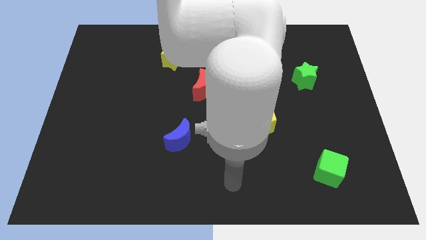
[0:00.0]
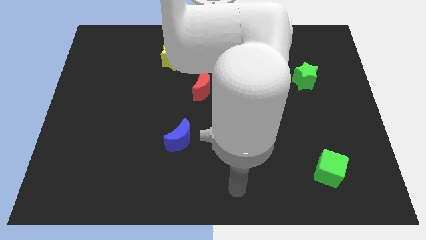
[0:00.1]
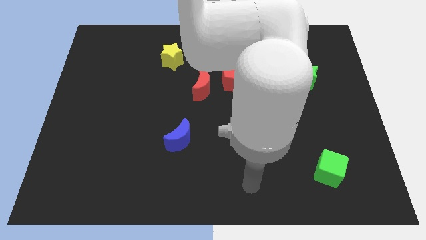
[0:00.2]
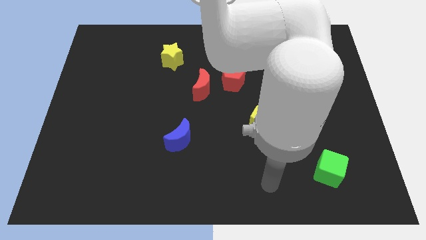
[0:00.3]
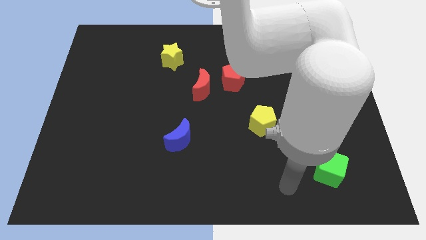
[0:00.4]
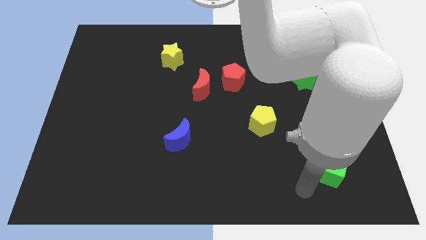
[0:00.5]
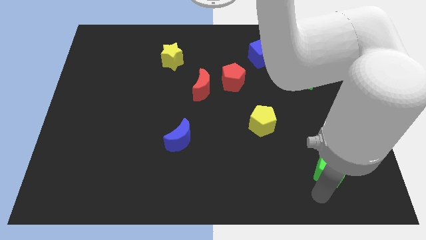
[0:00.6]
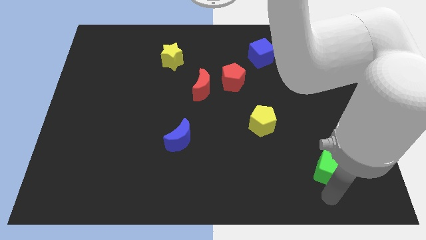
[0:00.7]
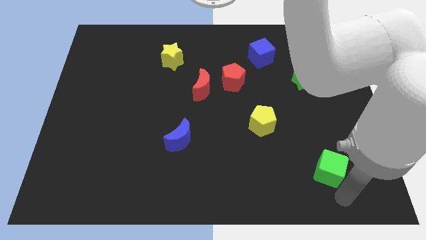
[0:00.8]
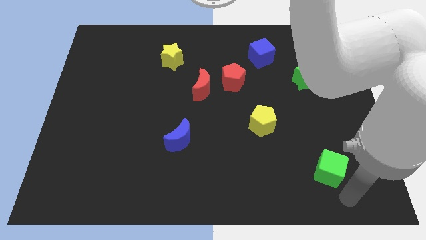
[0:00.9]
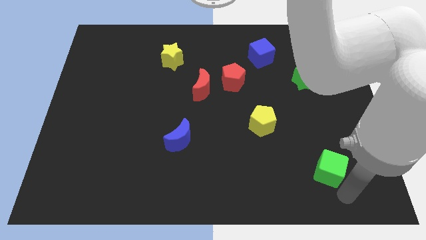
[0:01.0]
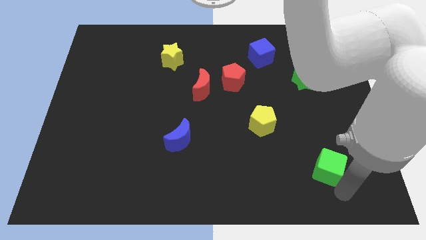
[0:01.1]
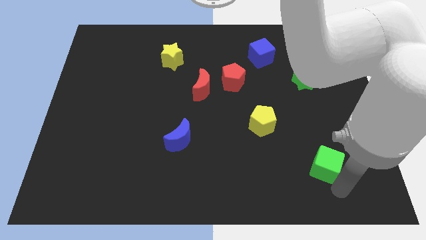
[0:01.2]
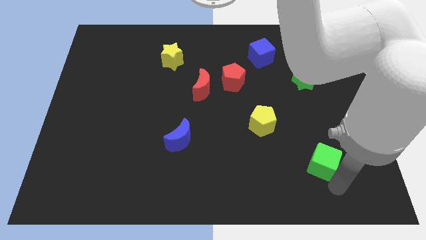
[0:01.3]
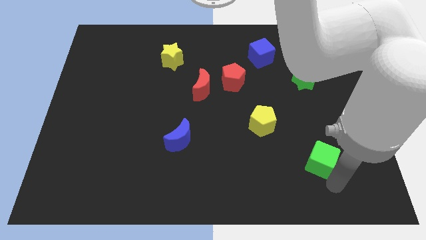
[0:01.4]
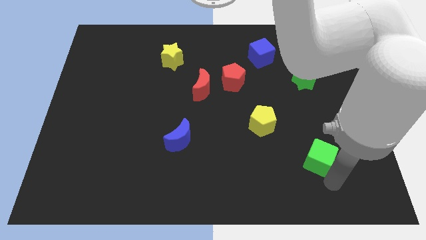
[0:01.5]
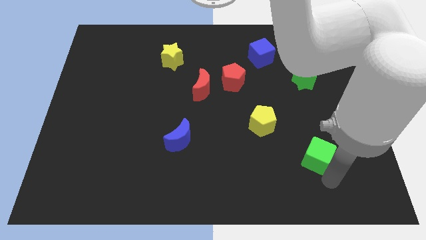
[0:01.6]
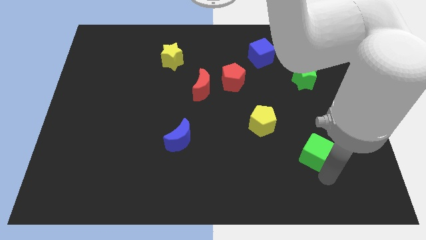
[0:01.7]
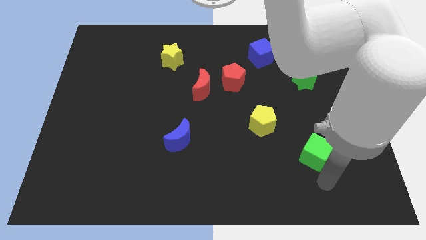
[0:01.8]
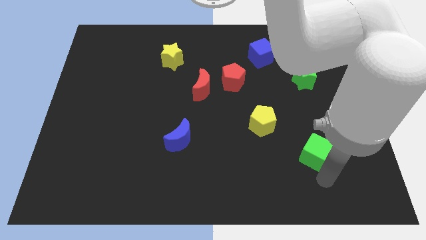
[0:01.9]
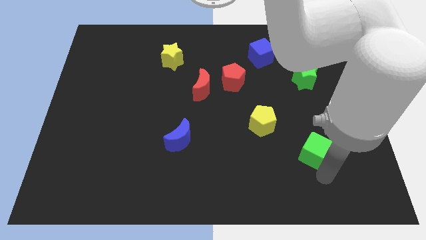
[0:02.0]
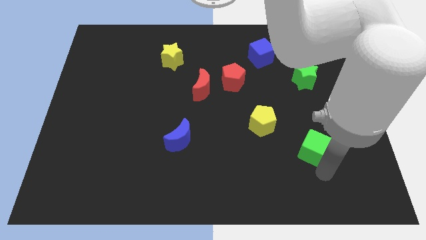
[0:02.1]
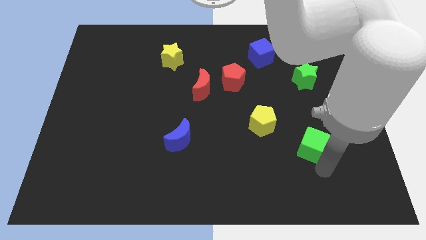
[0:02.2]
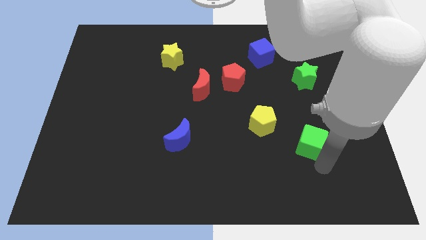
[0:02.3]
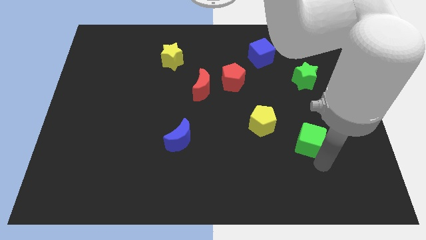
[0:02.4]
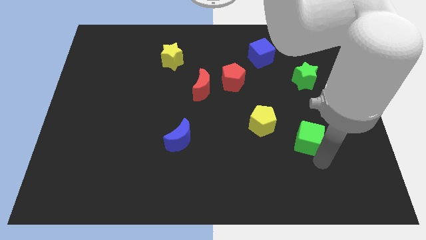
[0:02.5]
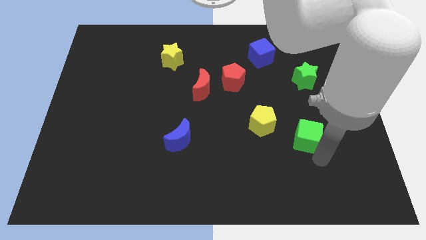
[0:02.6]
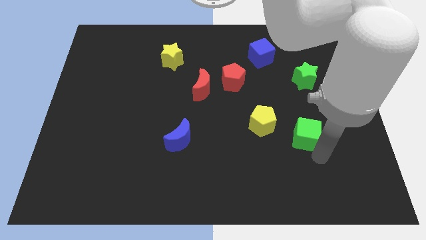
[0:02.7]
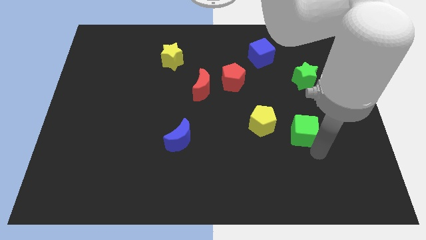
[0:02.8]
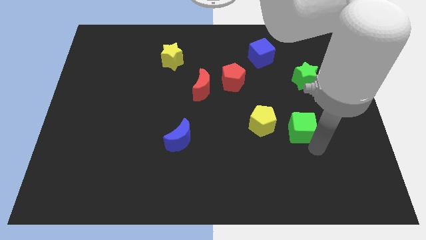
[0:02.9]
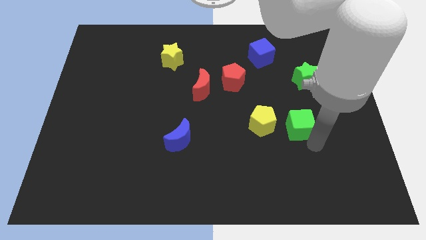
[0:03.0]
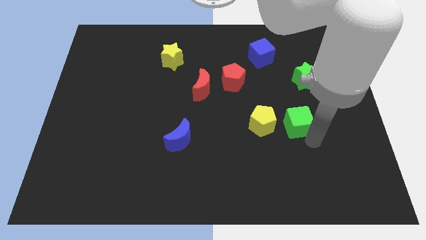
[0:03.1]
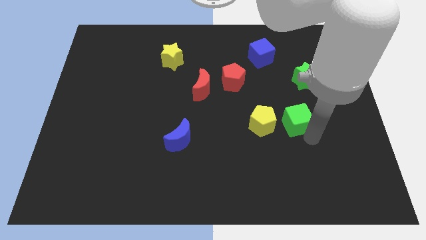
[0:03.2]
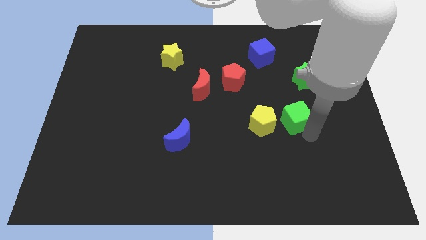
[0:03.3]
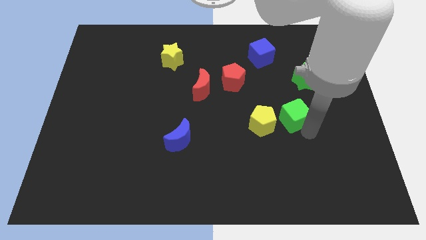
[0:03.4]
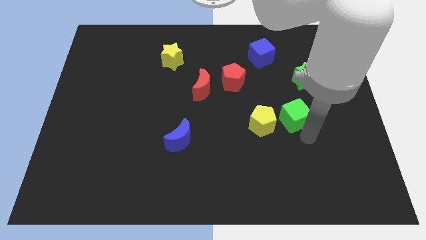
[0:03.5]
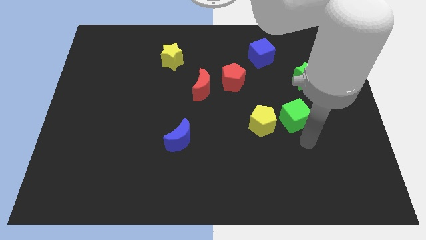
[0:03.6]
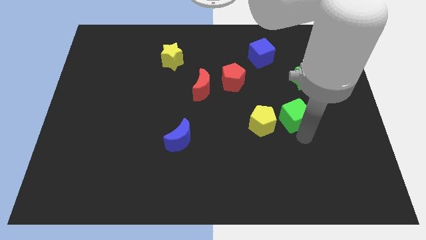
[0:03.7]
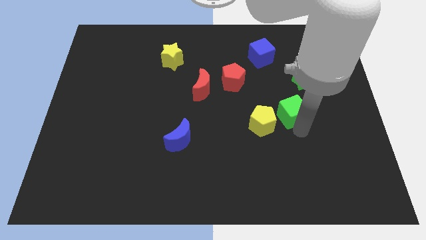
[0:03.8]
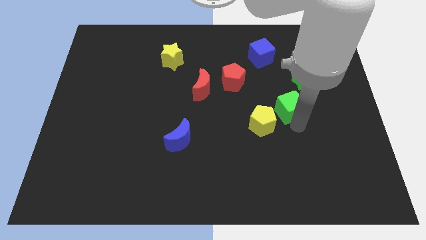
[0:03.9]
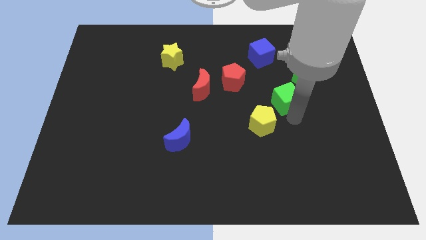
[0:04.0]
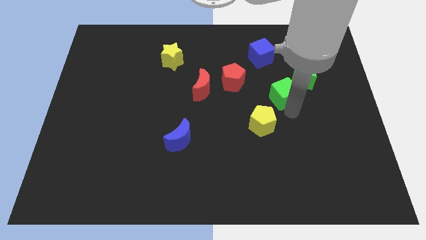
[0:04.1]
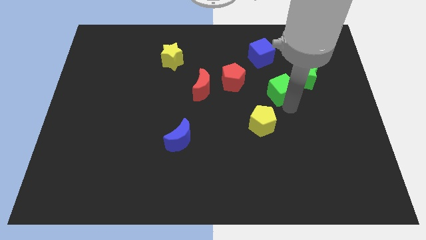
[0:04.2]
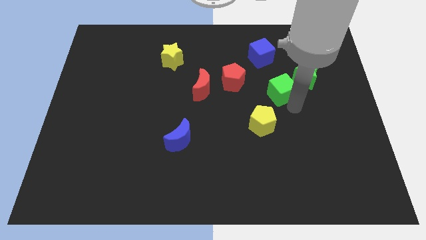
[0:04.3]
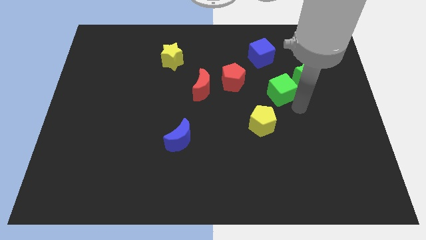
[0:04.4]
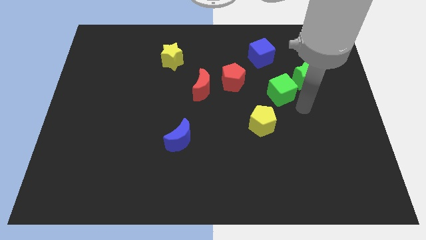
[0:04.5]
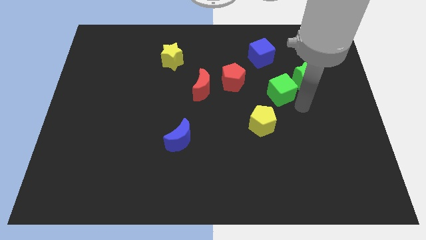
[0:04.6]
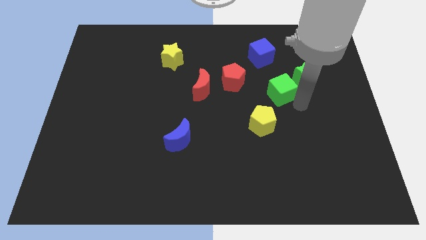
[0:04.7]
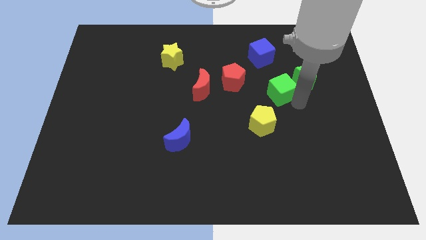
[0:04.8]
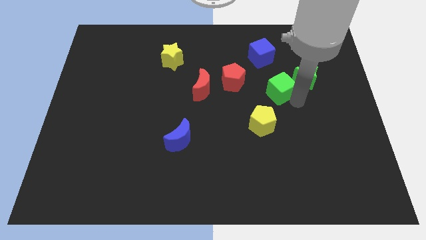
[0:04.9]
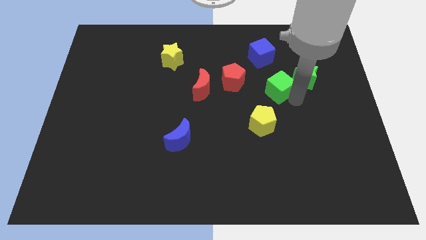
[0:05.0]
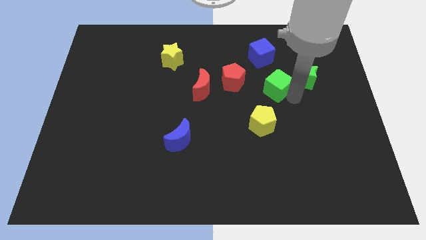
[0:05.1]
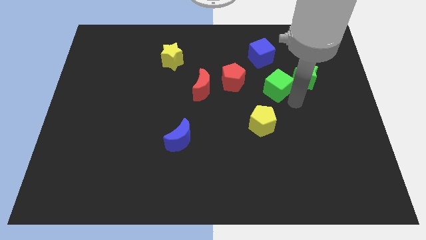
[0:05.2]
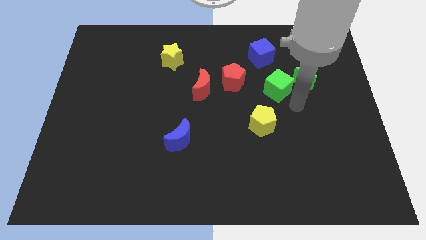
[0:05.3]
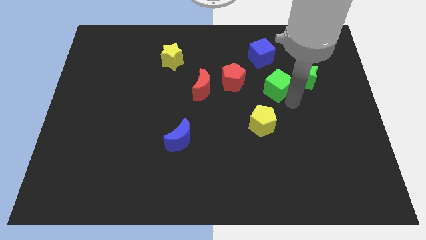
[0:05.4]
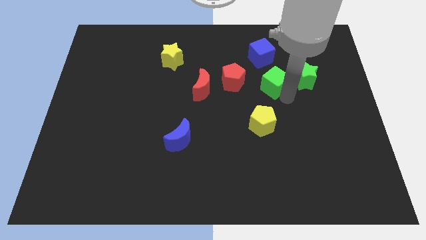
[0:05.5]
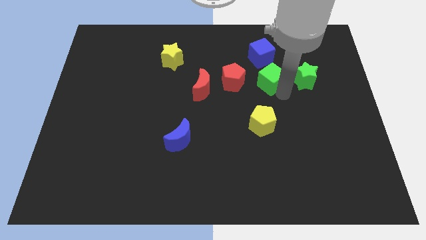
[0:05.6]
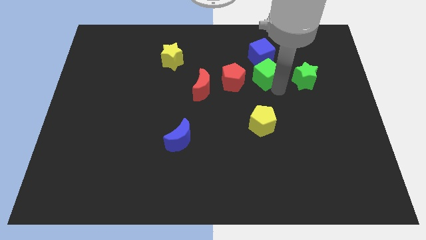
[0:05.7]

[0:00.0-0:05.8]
slide the green cube diagonally up and to the right of the red pentagon
